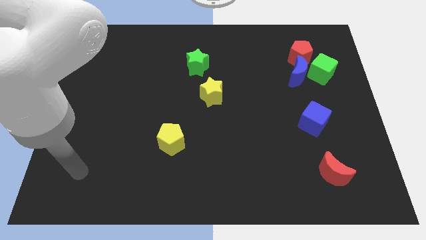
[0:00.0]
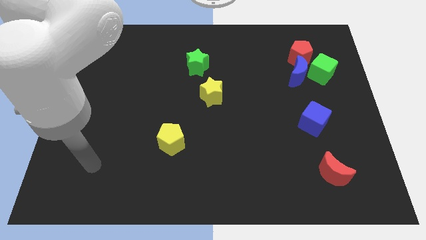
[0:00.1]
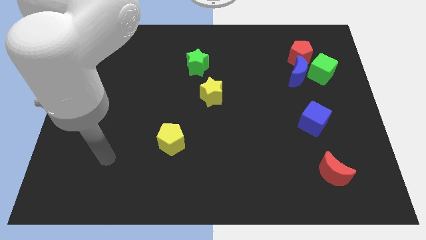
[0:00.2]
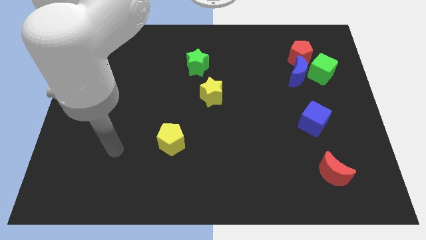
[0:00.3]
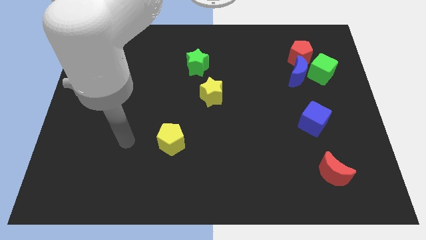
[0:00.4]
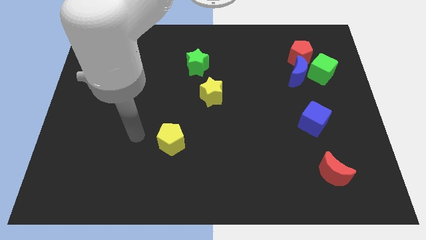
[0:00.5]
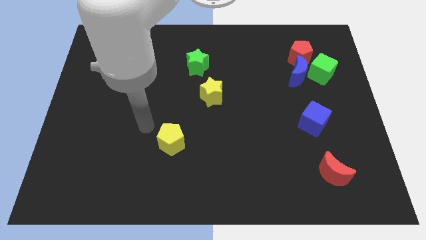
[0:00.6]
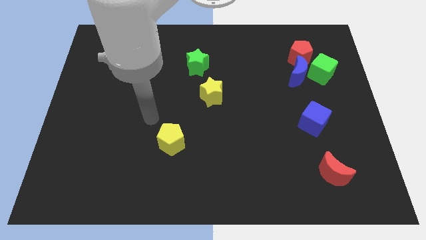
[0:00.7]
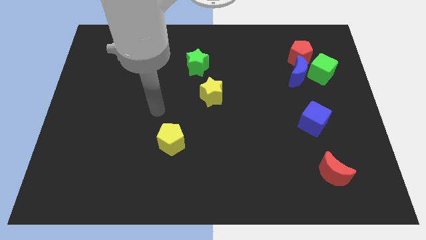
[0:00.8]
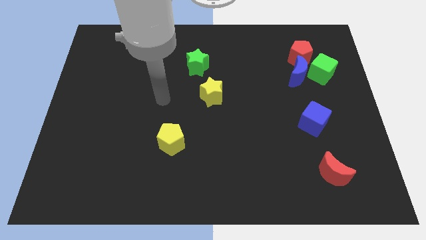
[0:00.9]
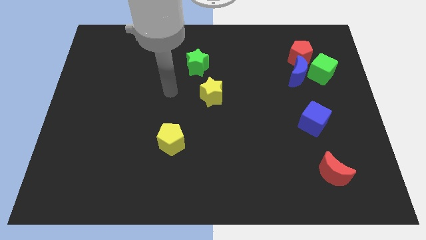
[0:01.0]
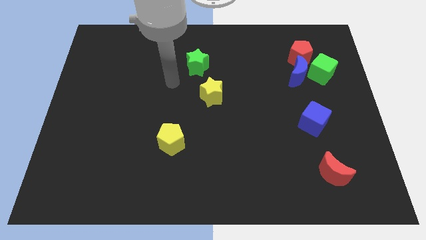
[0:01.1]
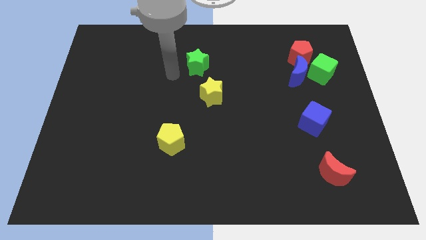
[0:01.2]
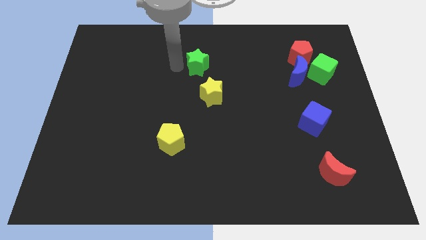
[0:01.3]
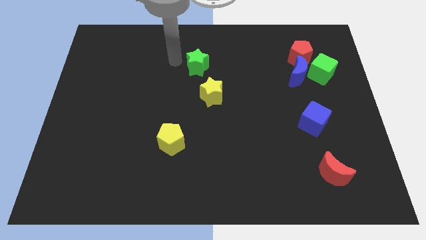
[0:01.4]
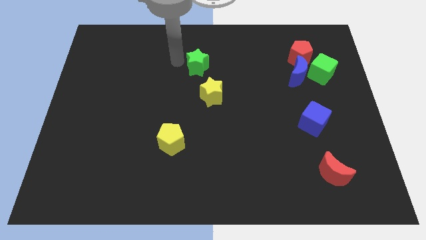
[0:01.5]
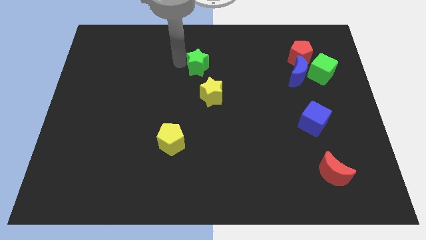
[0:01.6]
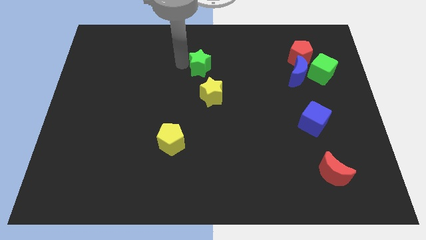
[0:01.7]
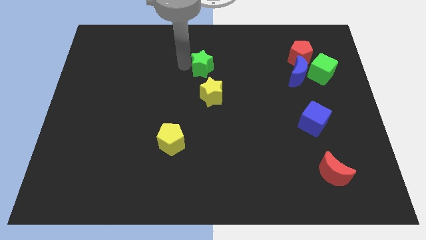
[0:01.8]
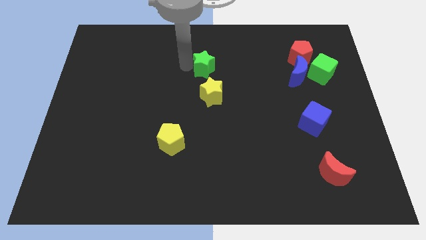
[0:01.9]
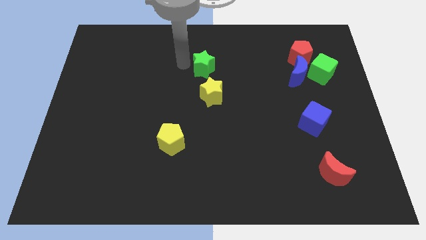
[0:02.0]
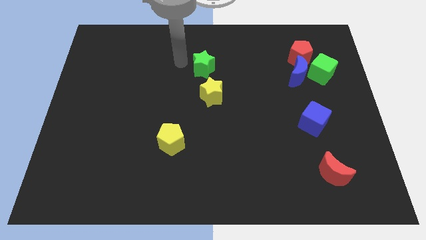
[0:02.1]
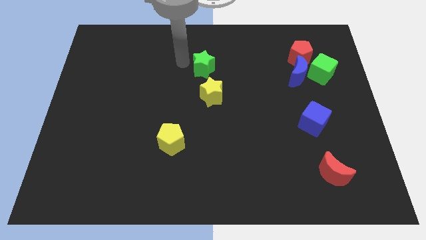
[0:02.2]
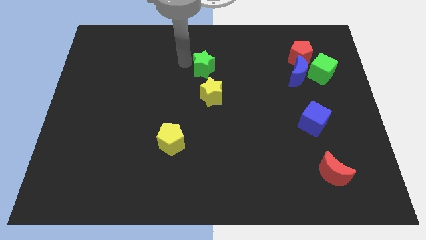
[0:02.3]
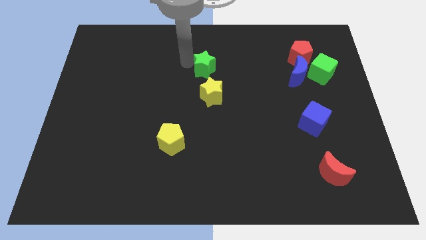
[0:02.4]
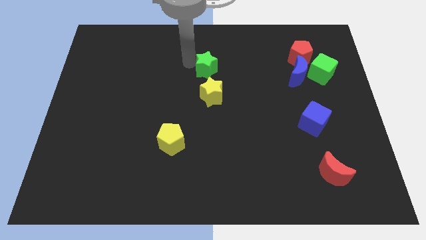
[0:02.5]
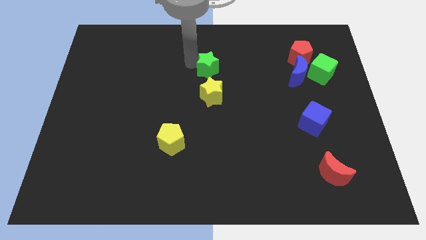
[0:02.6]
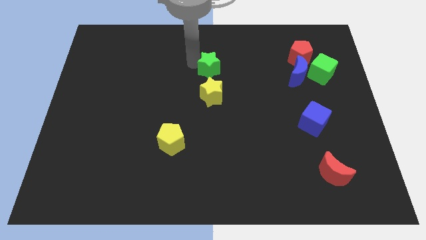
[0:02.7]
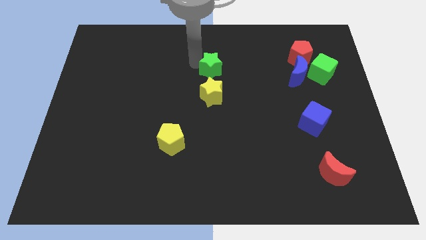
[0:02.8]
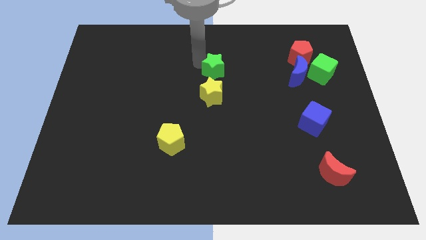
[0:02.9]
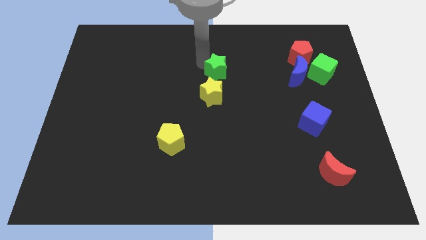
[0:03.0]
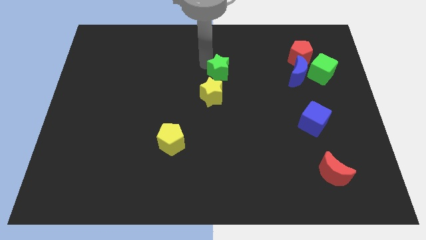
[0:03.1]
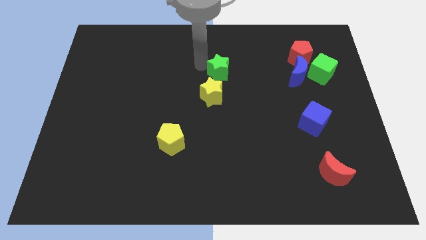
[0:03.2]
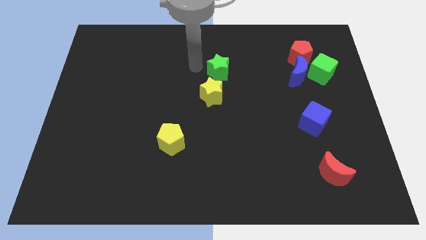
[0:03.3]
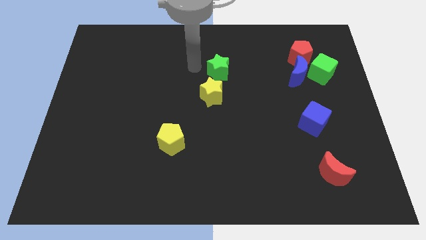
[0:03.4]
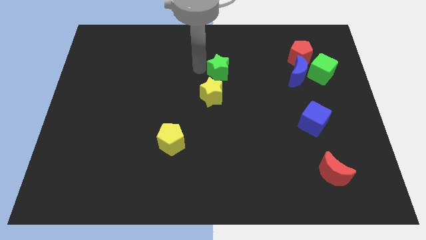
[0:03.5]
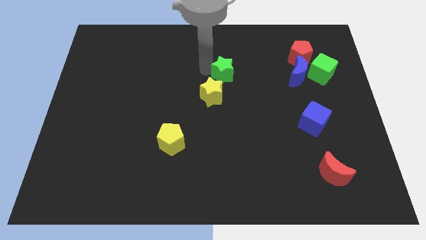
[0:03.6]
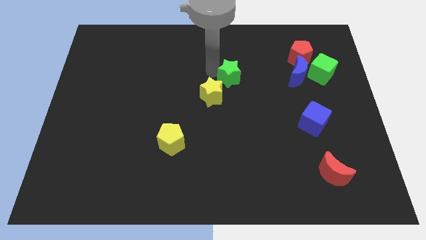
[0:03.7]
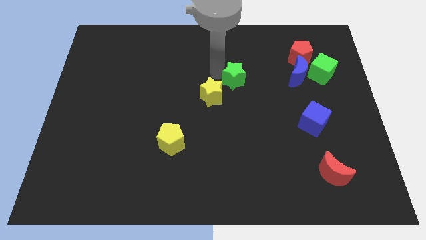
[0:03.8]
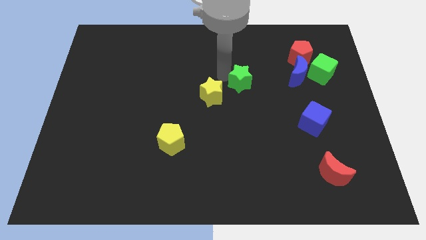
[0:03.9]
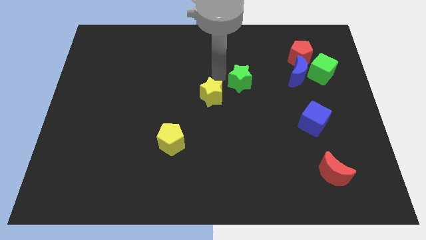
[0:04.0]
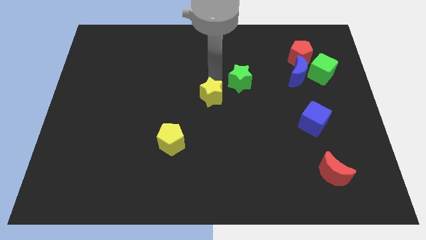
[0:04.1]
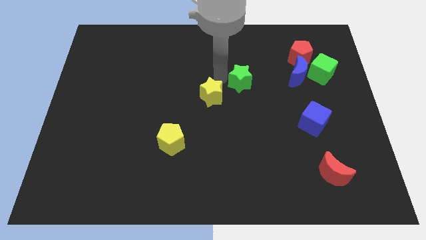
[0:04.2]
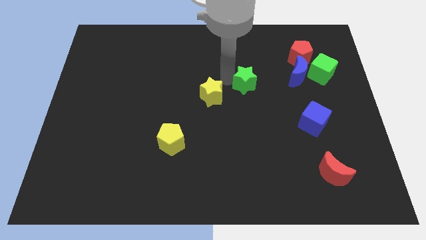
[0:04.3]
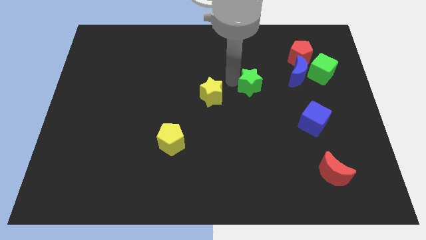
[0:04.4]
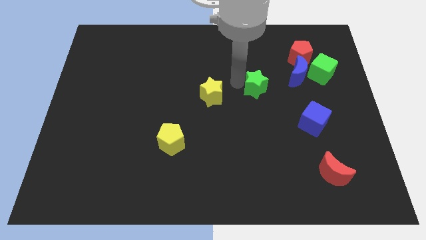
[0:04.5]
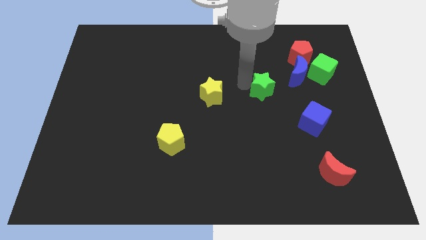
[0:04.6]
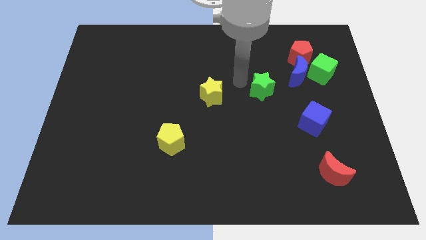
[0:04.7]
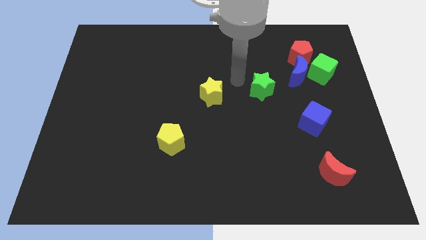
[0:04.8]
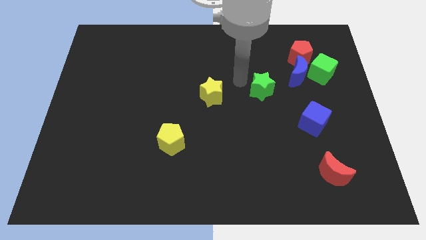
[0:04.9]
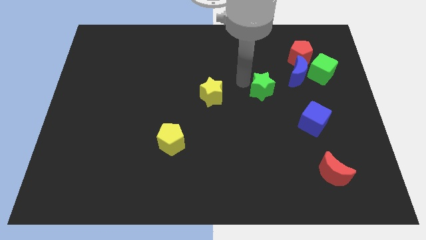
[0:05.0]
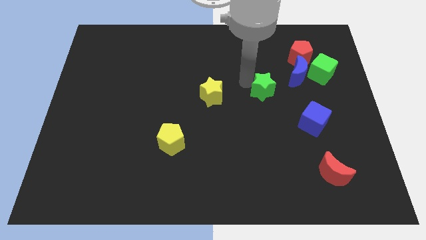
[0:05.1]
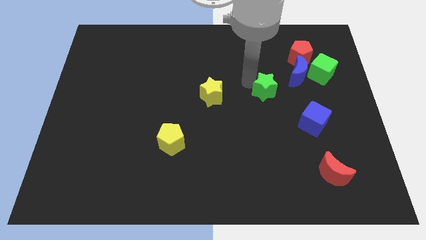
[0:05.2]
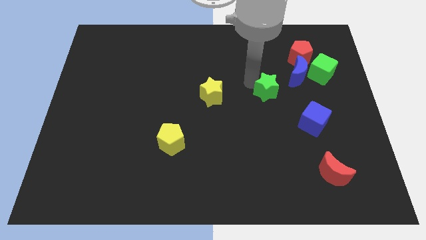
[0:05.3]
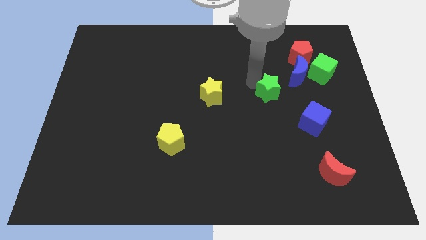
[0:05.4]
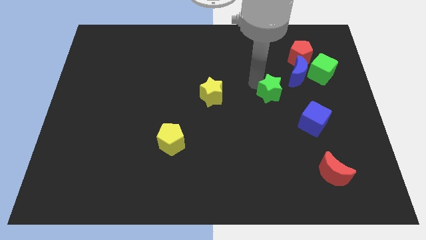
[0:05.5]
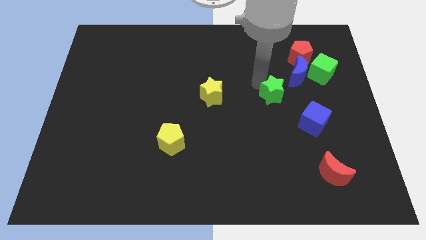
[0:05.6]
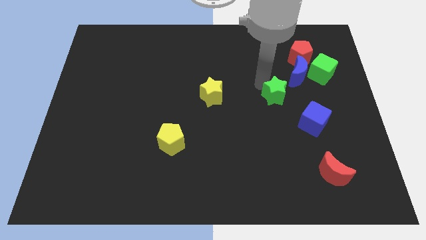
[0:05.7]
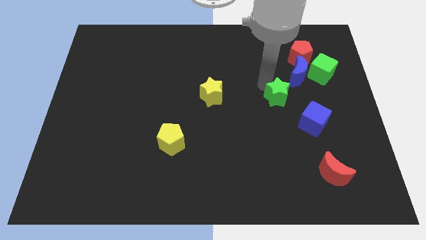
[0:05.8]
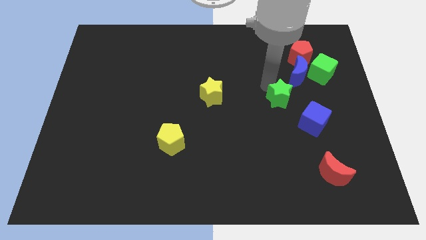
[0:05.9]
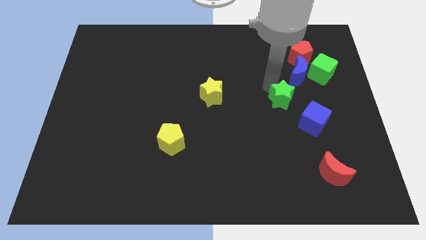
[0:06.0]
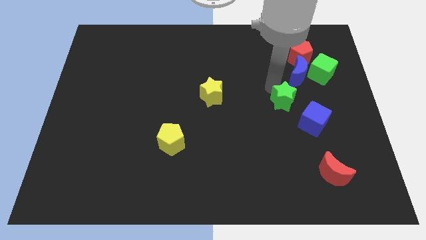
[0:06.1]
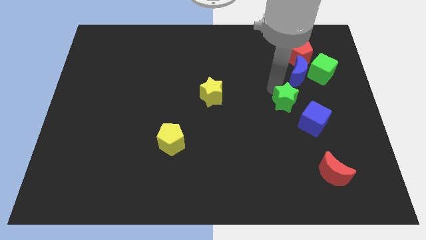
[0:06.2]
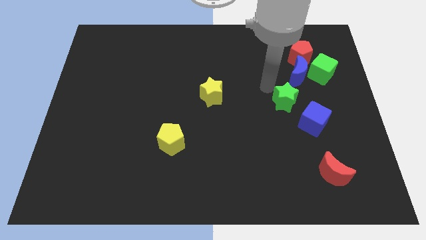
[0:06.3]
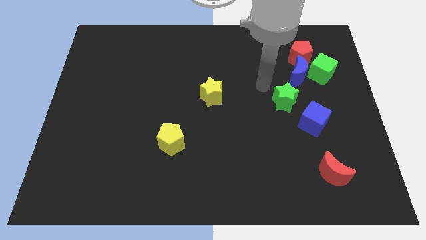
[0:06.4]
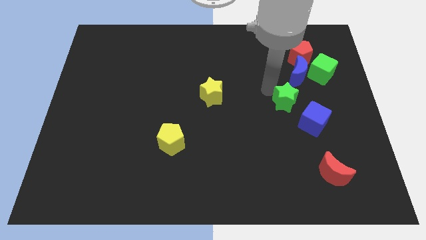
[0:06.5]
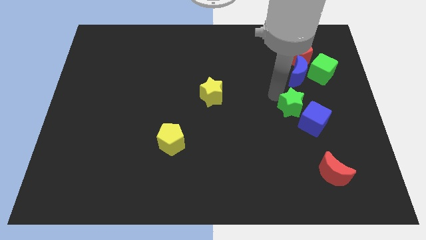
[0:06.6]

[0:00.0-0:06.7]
slide the green star close to the blue cube
